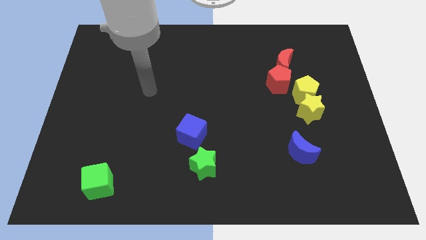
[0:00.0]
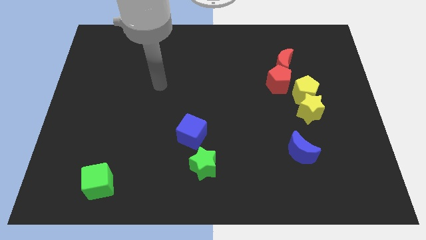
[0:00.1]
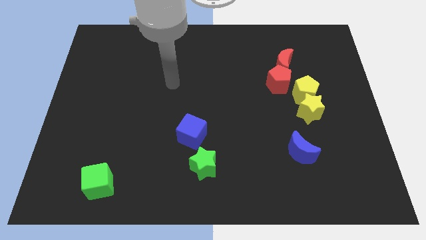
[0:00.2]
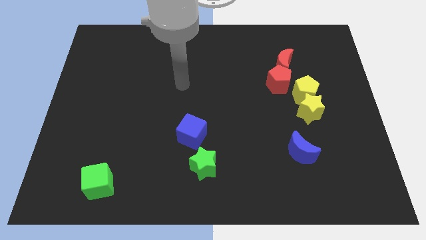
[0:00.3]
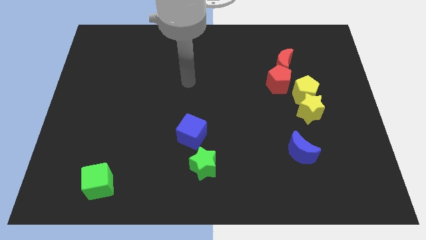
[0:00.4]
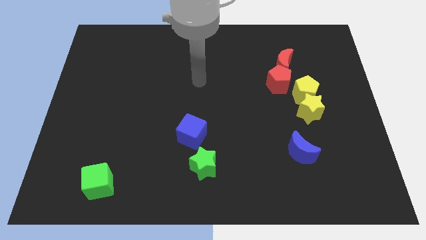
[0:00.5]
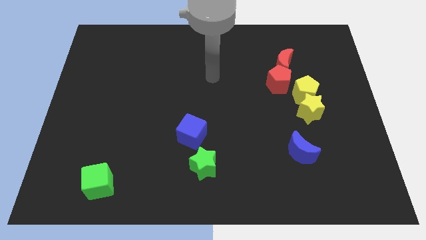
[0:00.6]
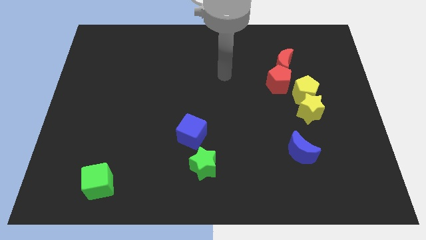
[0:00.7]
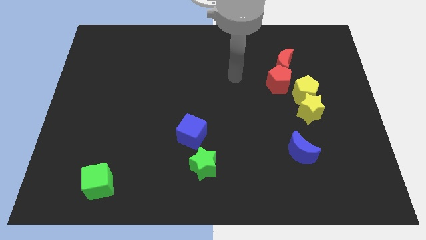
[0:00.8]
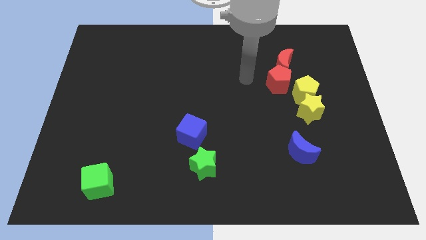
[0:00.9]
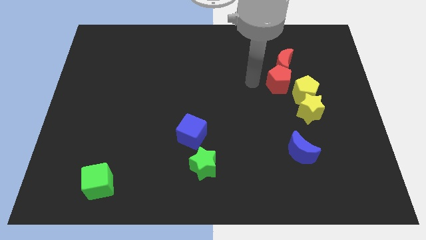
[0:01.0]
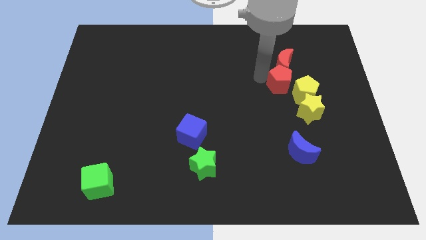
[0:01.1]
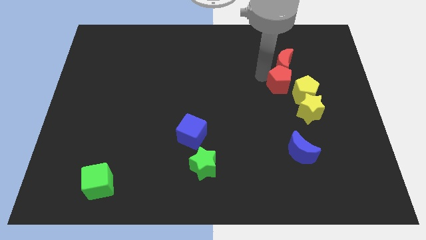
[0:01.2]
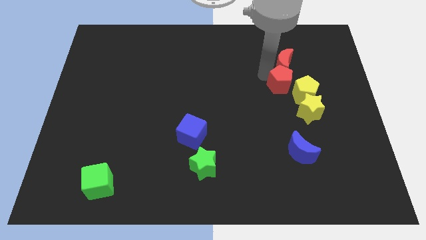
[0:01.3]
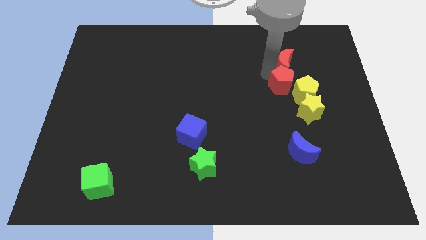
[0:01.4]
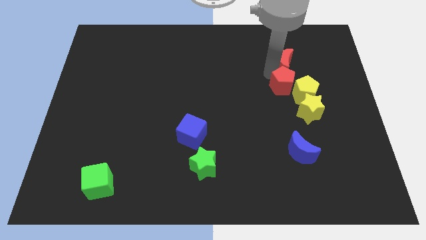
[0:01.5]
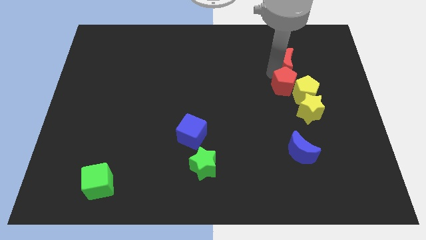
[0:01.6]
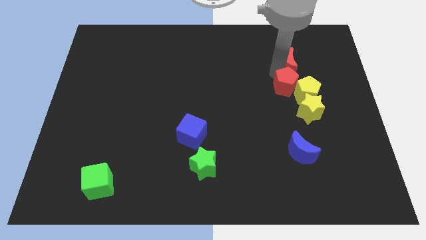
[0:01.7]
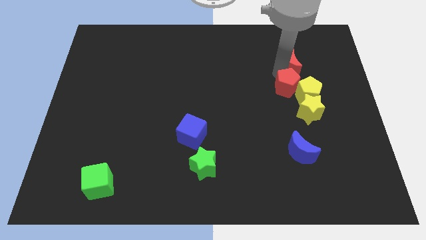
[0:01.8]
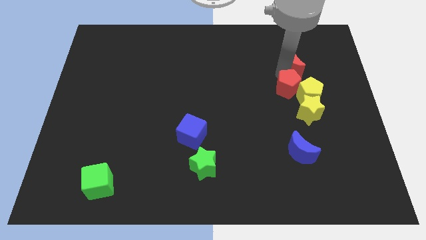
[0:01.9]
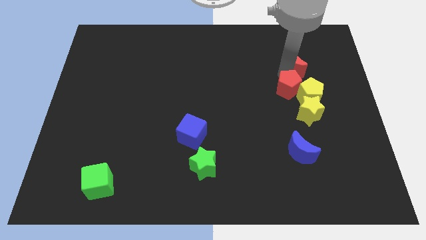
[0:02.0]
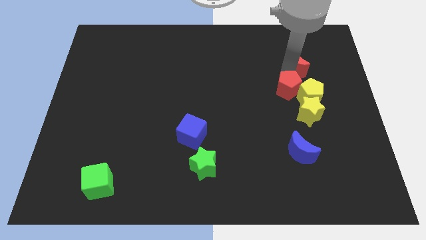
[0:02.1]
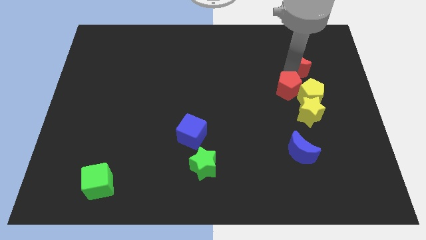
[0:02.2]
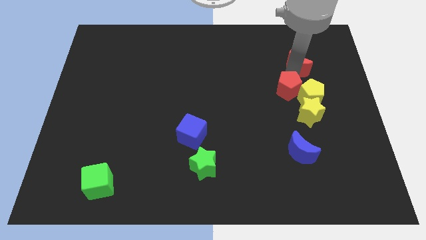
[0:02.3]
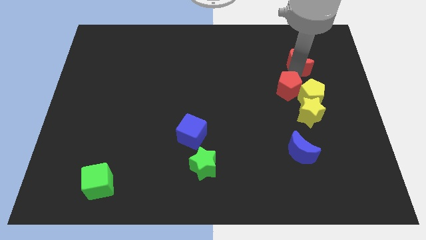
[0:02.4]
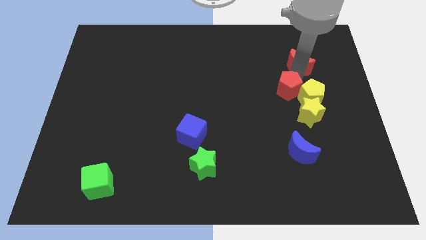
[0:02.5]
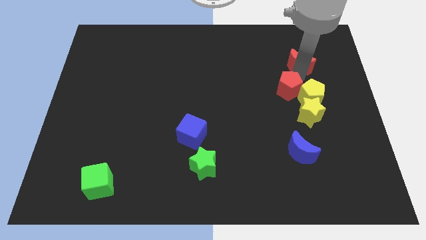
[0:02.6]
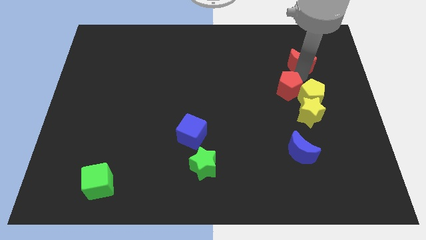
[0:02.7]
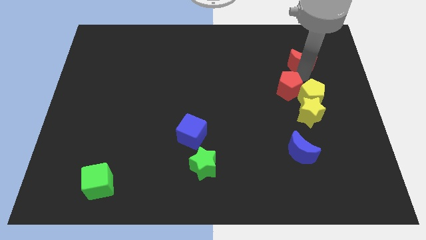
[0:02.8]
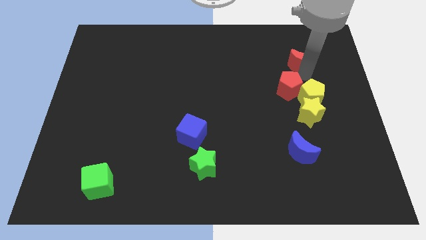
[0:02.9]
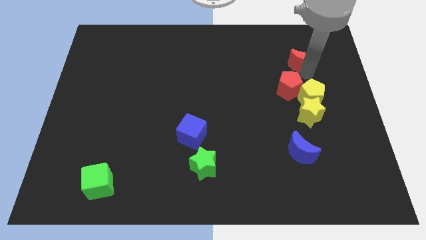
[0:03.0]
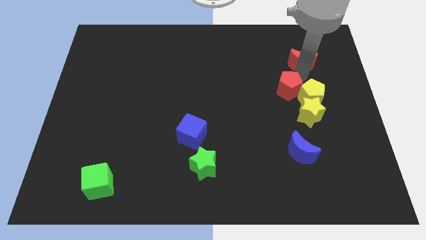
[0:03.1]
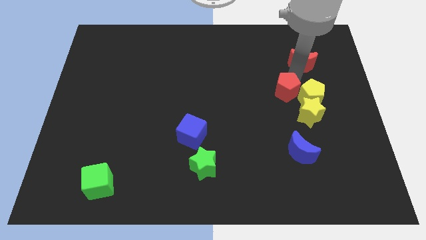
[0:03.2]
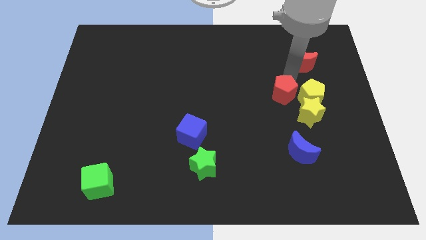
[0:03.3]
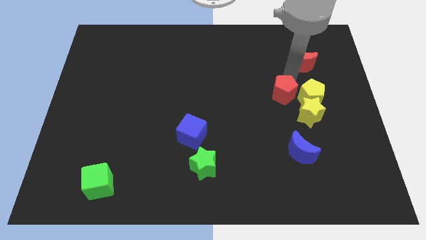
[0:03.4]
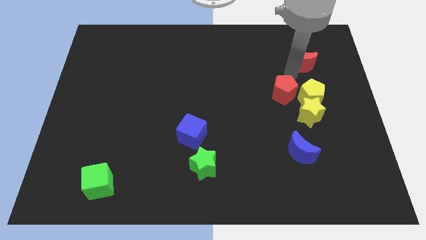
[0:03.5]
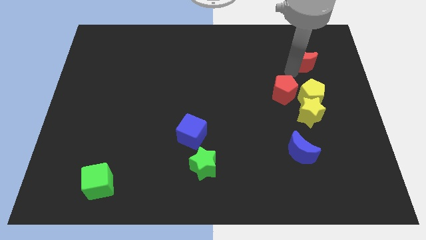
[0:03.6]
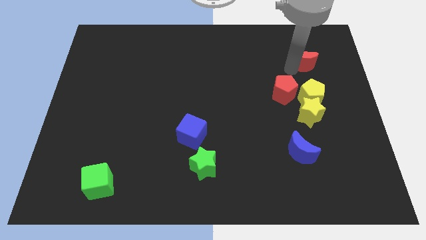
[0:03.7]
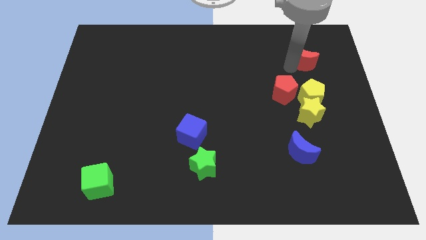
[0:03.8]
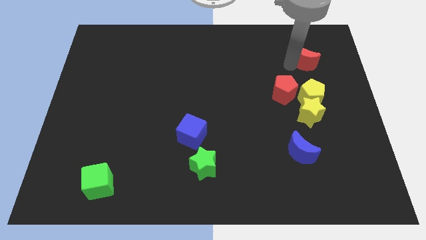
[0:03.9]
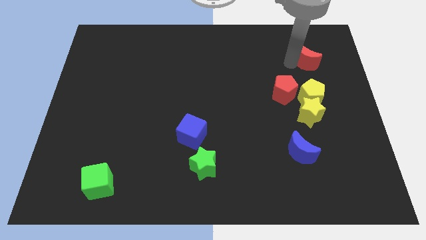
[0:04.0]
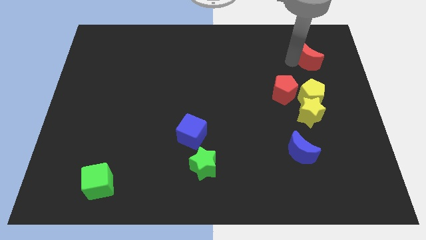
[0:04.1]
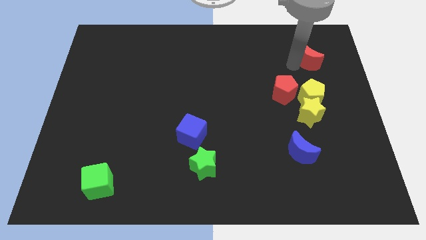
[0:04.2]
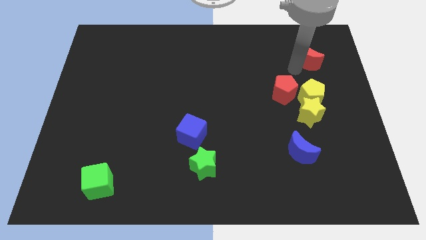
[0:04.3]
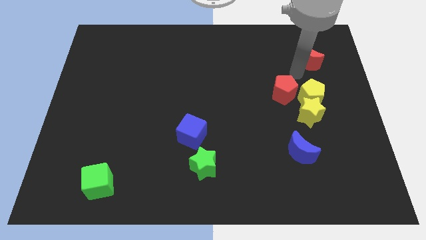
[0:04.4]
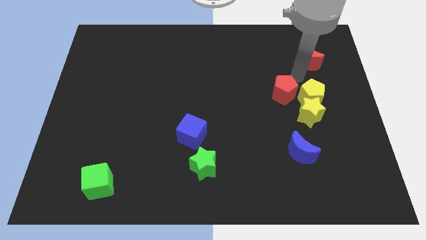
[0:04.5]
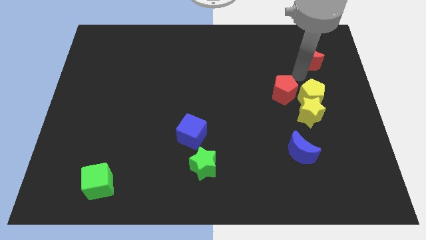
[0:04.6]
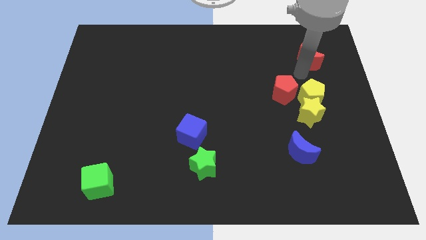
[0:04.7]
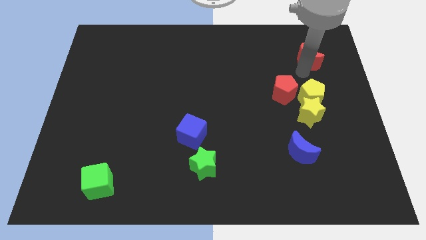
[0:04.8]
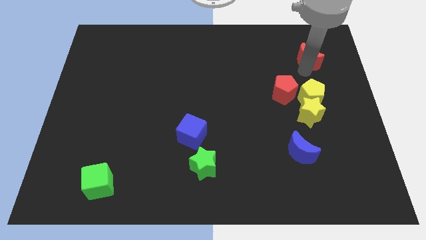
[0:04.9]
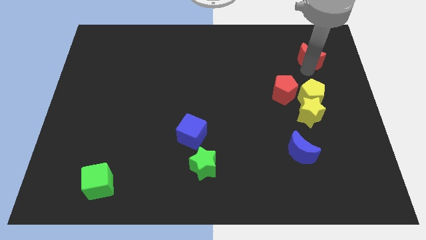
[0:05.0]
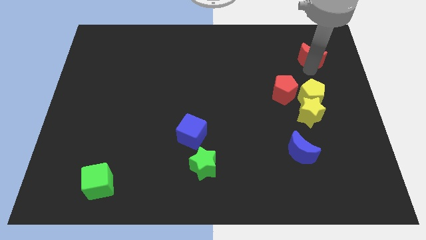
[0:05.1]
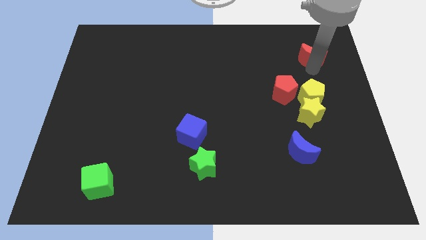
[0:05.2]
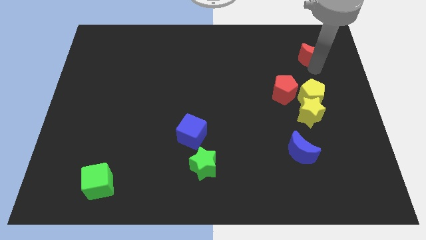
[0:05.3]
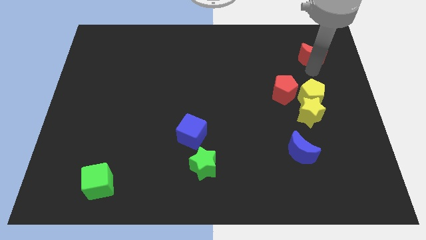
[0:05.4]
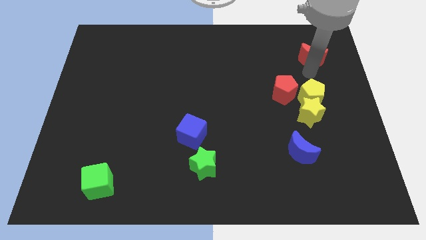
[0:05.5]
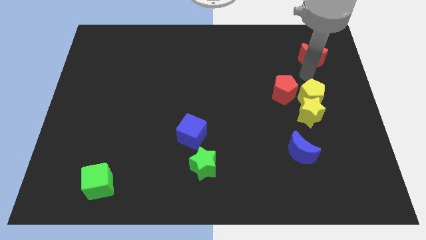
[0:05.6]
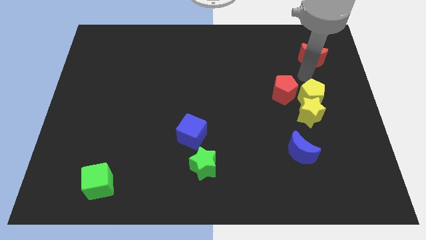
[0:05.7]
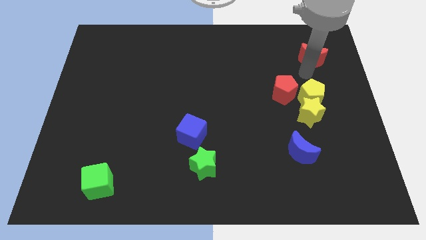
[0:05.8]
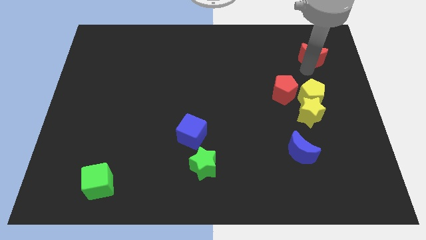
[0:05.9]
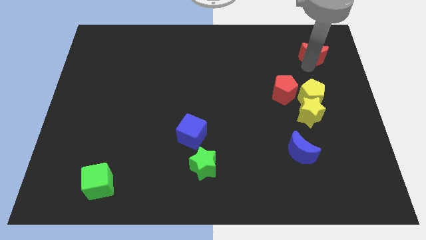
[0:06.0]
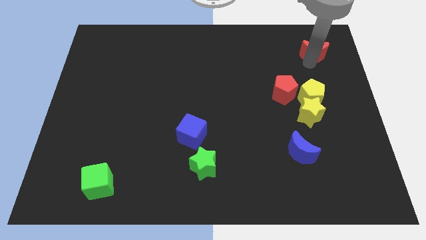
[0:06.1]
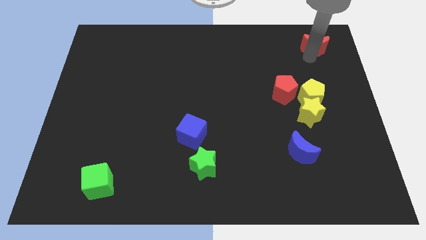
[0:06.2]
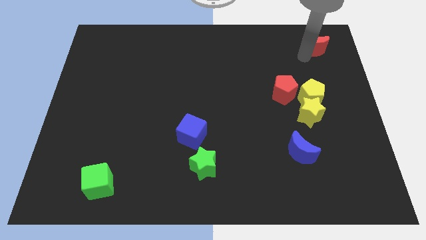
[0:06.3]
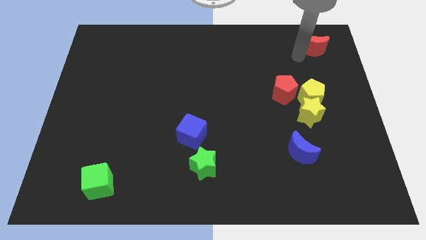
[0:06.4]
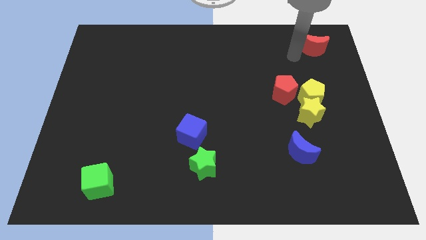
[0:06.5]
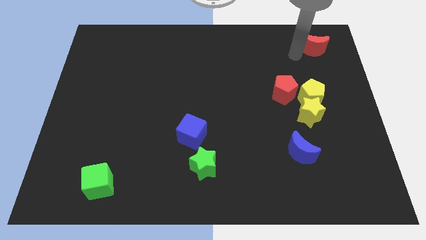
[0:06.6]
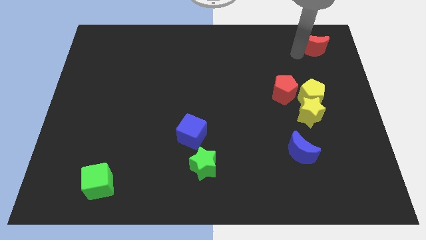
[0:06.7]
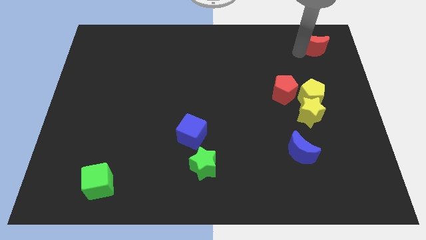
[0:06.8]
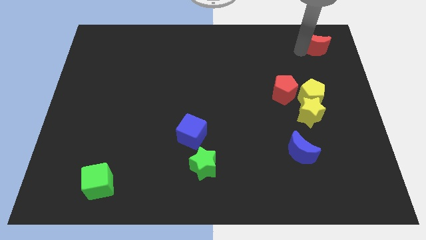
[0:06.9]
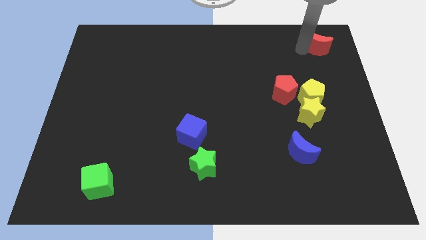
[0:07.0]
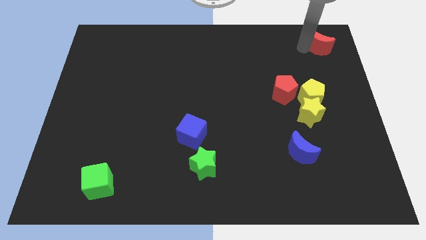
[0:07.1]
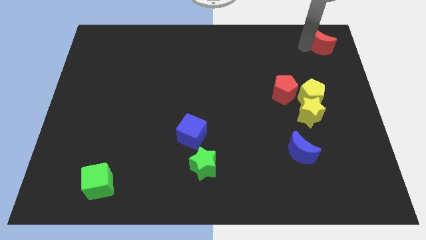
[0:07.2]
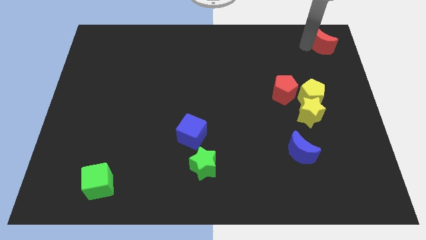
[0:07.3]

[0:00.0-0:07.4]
put the red moon to the top right corner
